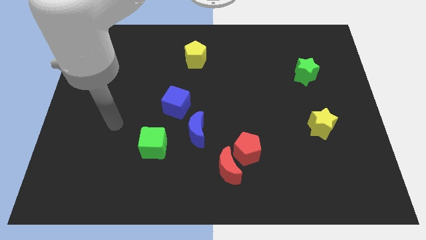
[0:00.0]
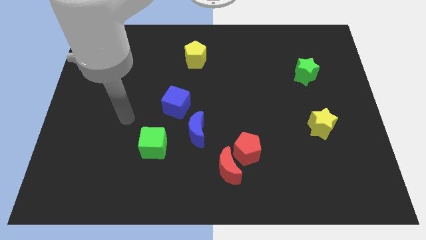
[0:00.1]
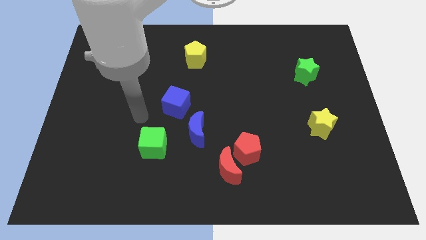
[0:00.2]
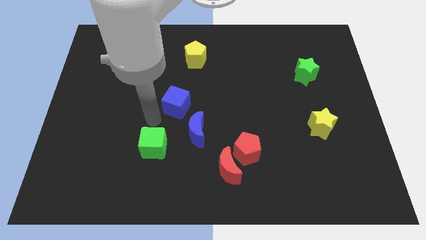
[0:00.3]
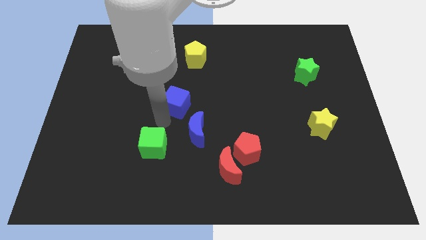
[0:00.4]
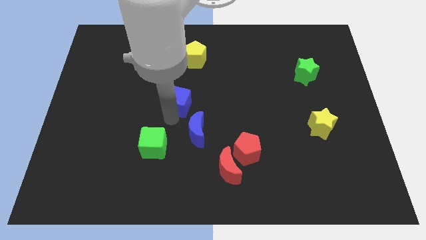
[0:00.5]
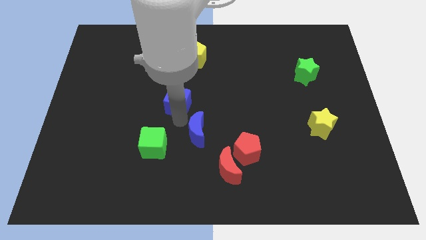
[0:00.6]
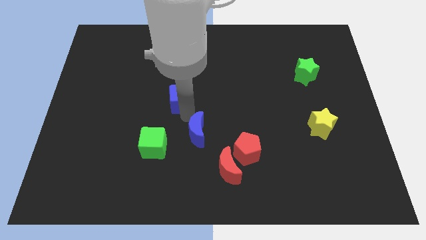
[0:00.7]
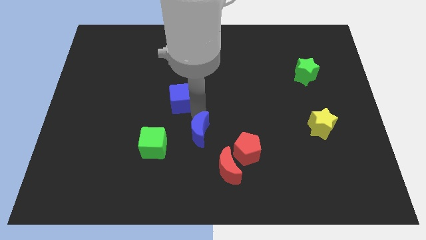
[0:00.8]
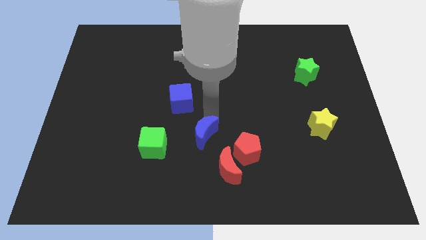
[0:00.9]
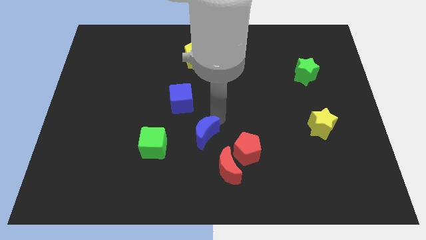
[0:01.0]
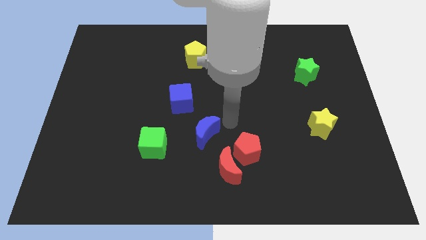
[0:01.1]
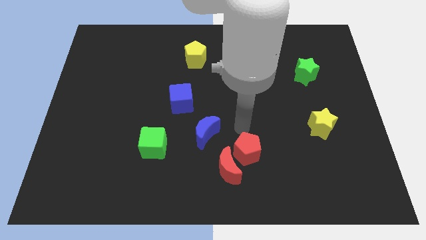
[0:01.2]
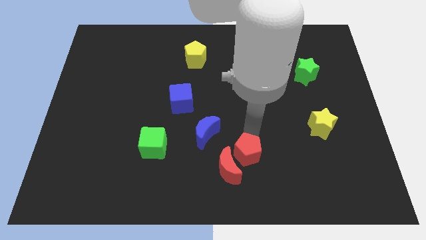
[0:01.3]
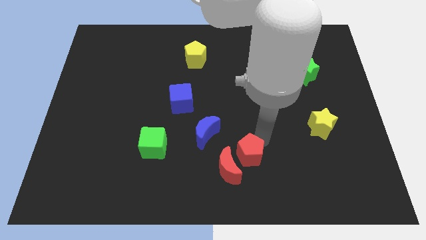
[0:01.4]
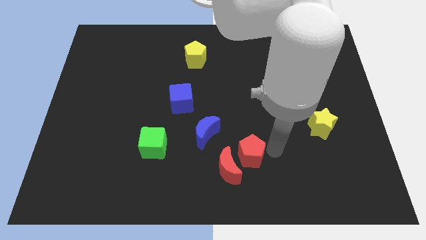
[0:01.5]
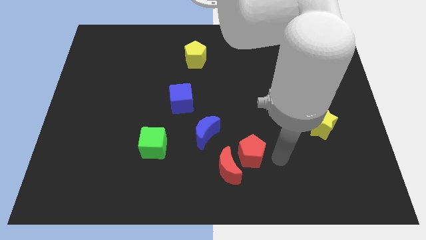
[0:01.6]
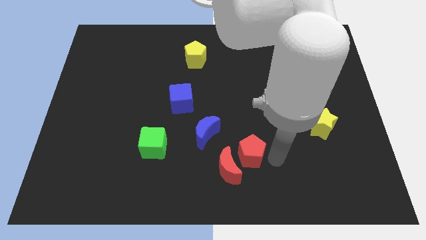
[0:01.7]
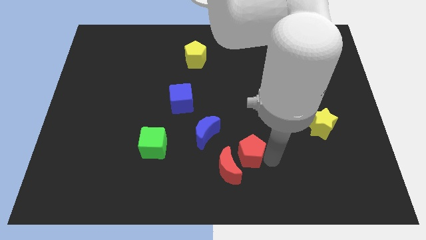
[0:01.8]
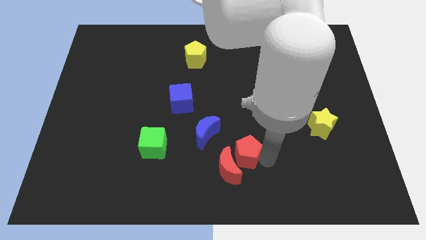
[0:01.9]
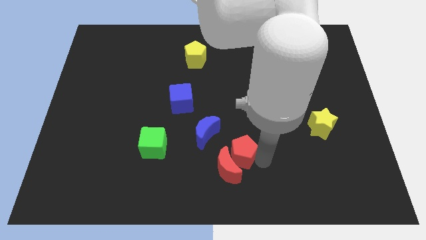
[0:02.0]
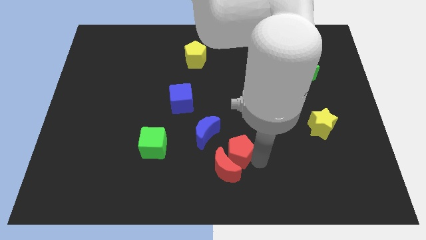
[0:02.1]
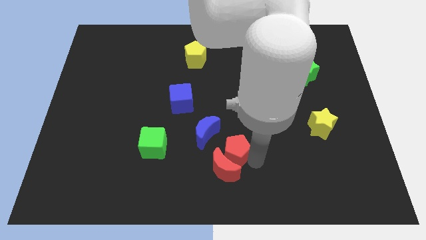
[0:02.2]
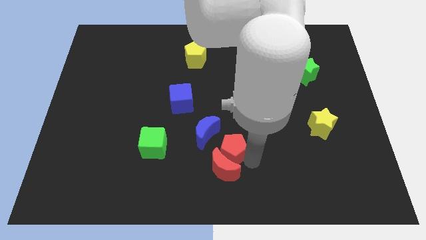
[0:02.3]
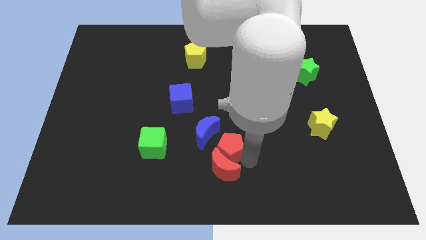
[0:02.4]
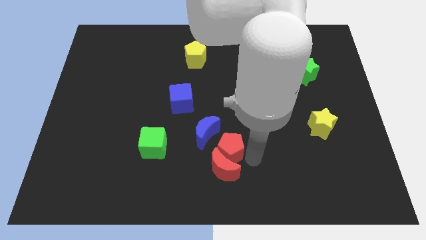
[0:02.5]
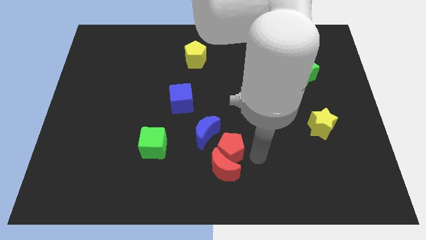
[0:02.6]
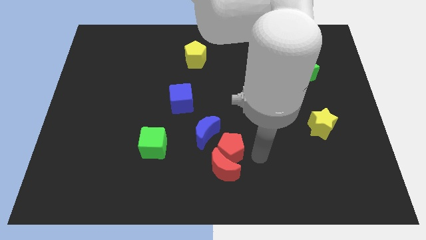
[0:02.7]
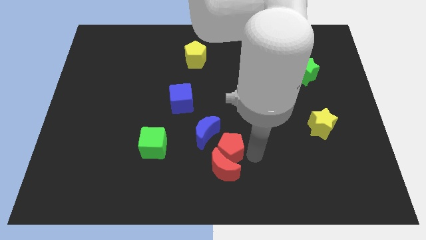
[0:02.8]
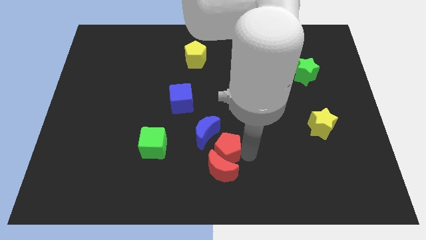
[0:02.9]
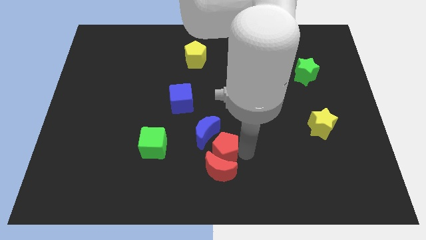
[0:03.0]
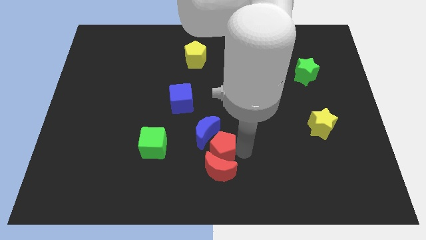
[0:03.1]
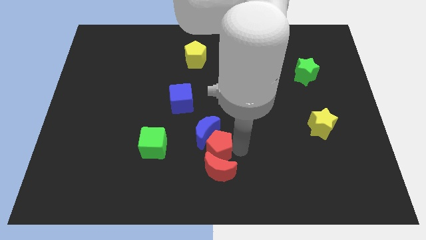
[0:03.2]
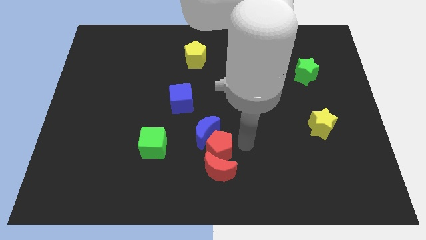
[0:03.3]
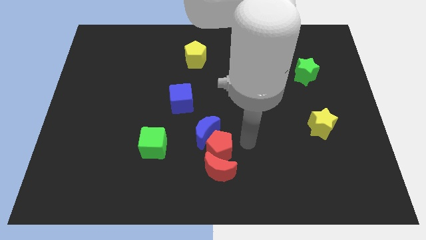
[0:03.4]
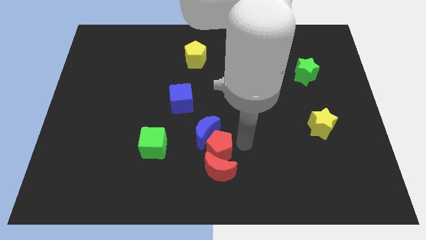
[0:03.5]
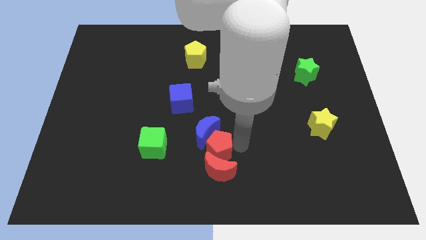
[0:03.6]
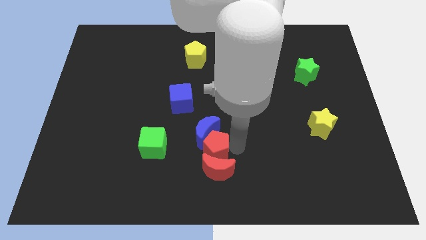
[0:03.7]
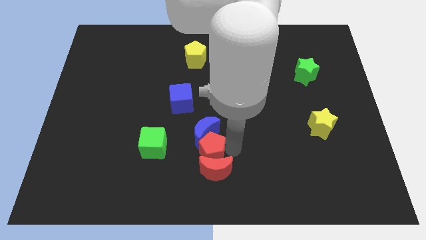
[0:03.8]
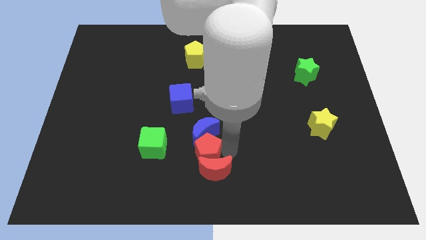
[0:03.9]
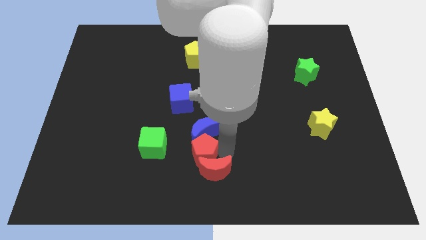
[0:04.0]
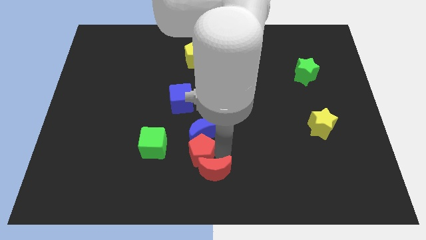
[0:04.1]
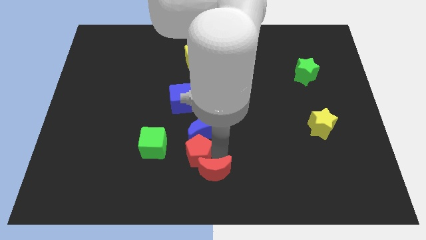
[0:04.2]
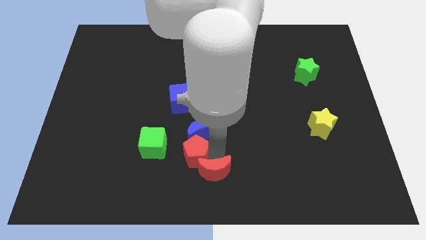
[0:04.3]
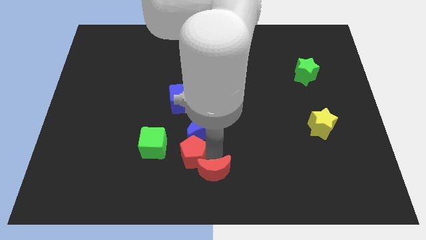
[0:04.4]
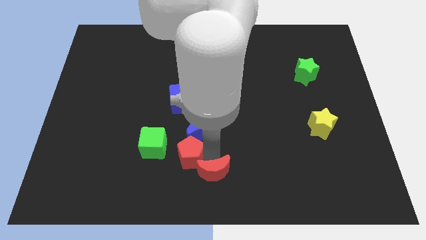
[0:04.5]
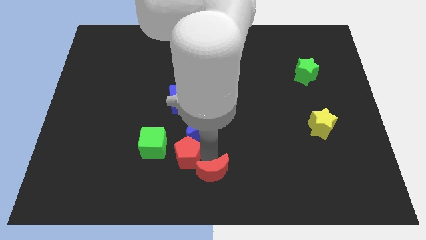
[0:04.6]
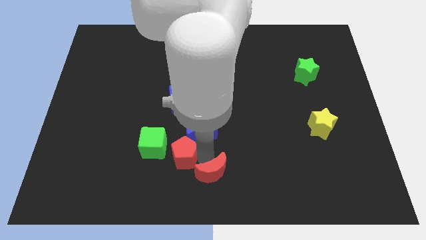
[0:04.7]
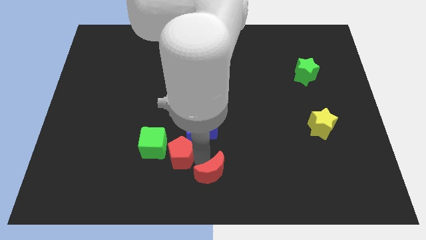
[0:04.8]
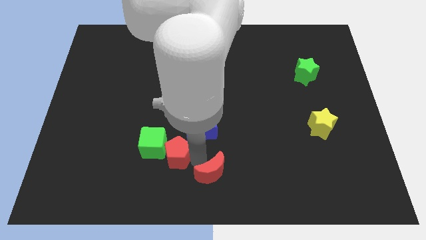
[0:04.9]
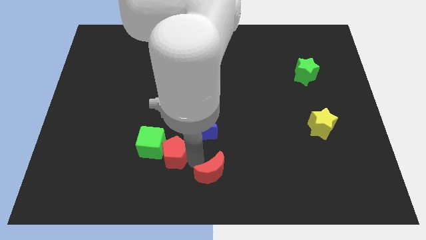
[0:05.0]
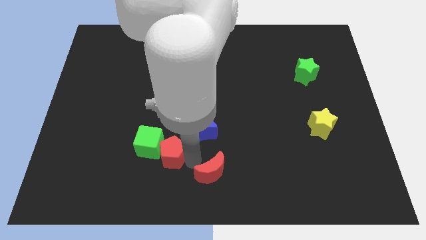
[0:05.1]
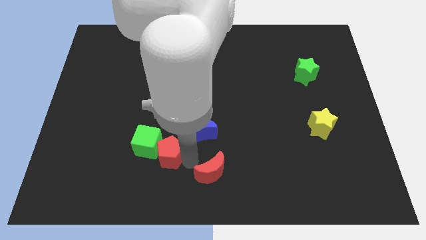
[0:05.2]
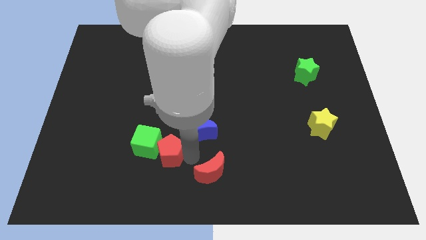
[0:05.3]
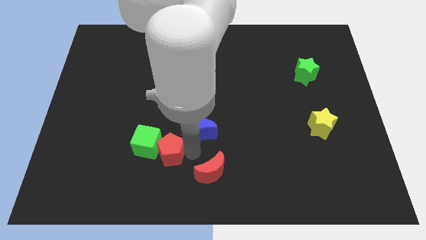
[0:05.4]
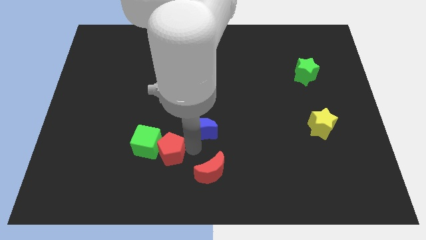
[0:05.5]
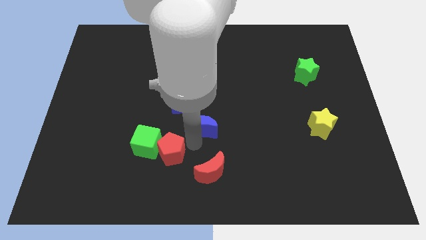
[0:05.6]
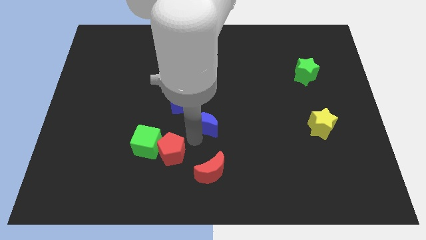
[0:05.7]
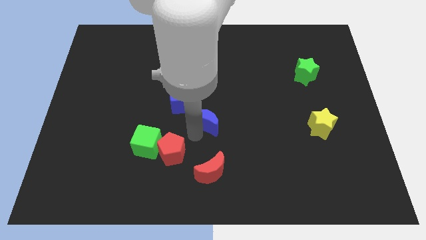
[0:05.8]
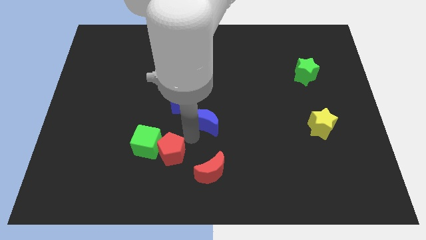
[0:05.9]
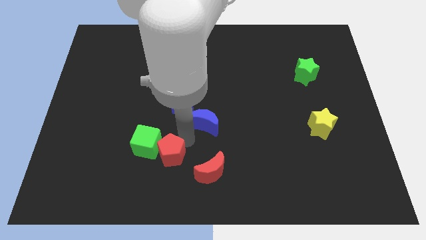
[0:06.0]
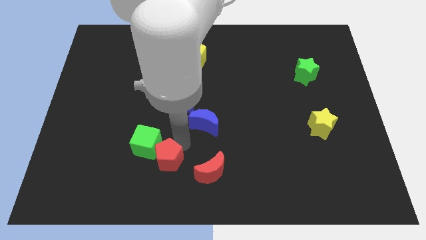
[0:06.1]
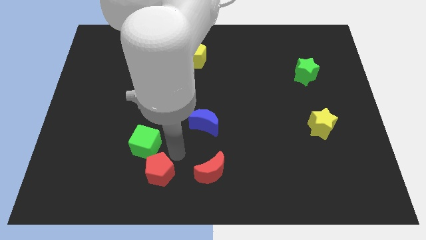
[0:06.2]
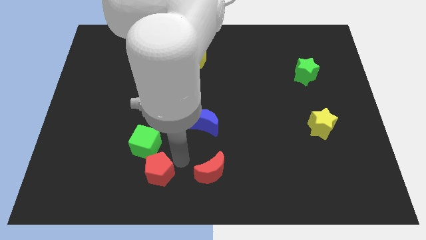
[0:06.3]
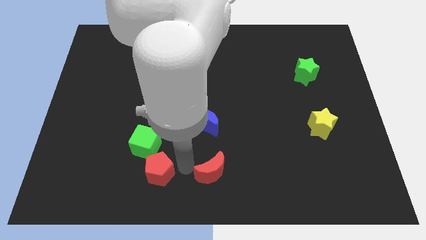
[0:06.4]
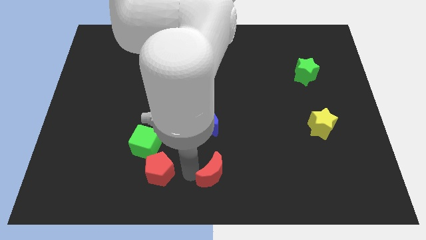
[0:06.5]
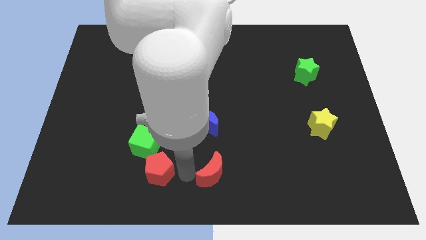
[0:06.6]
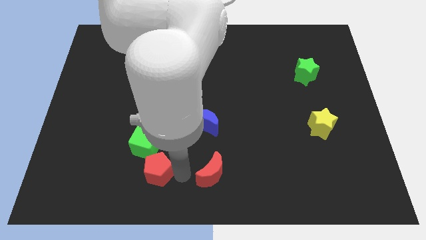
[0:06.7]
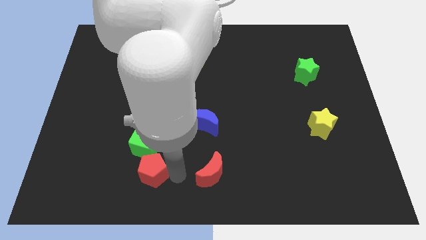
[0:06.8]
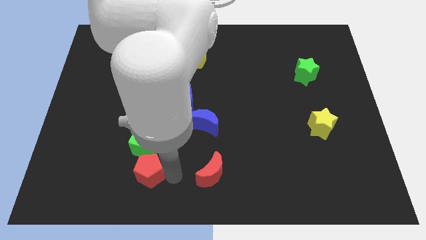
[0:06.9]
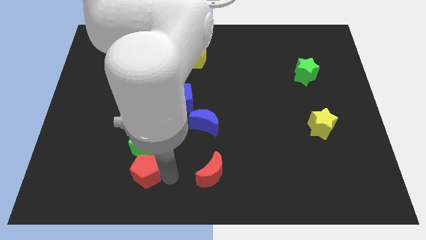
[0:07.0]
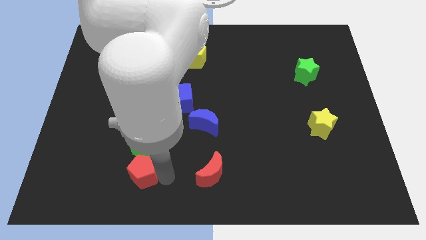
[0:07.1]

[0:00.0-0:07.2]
put the red pentagon to the bottom left of the green cube
